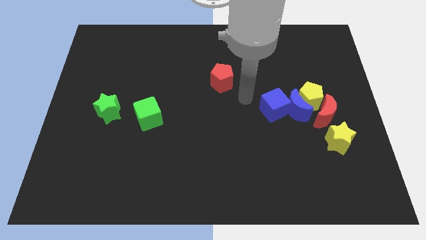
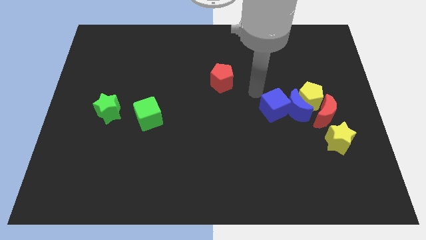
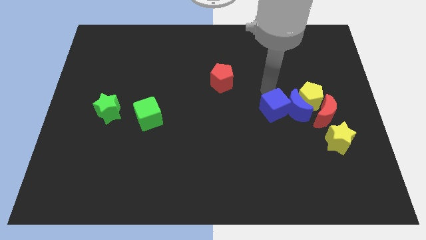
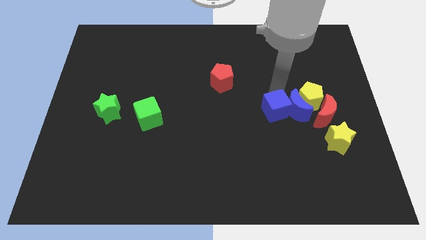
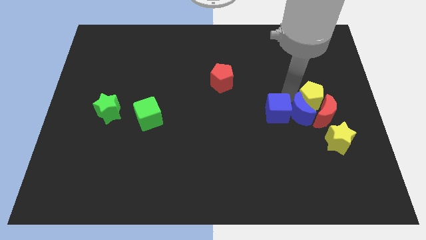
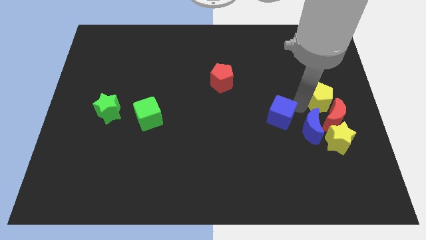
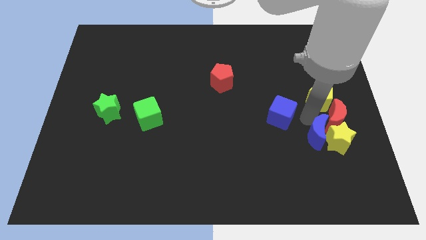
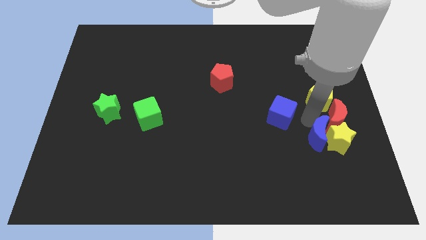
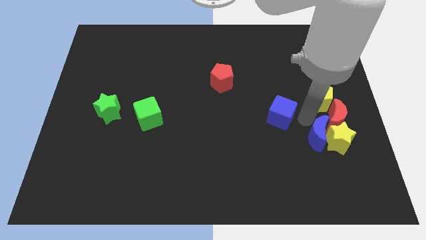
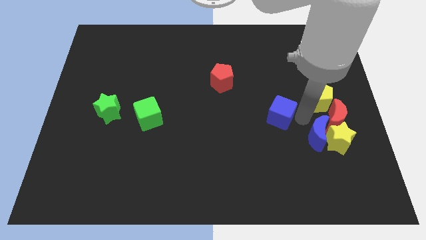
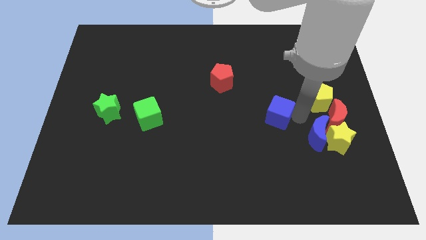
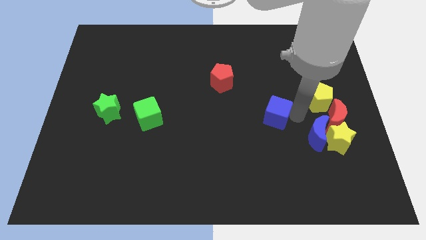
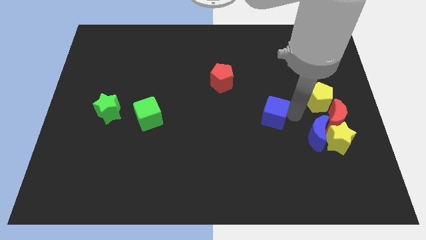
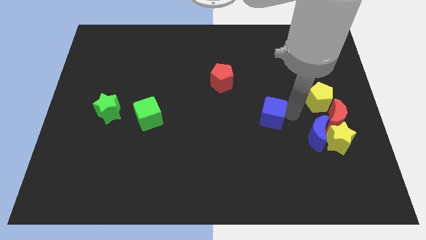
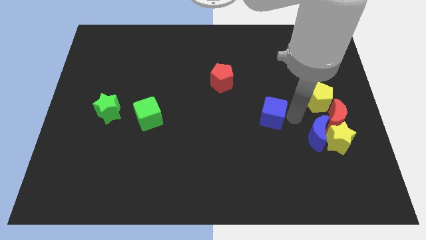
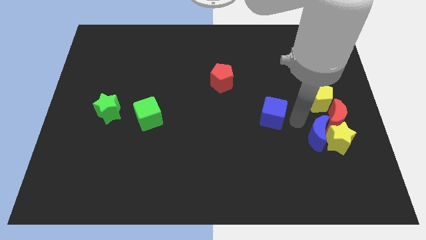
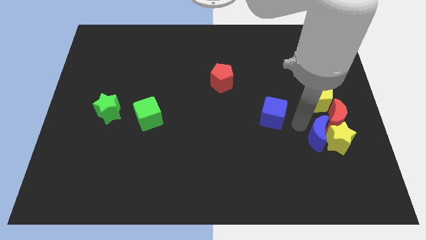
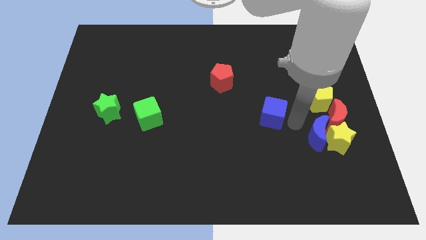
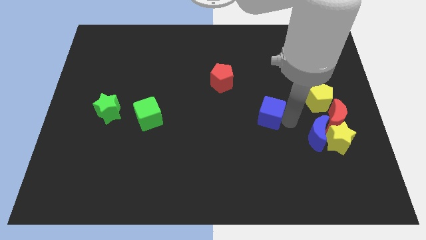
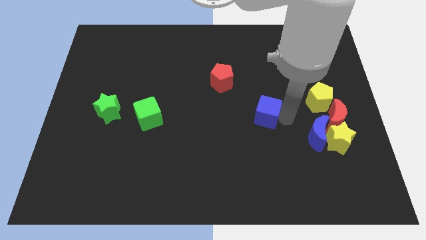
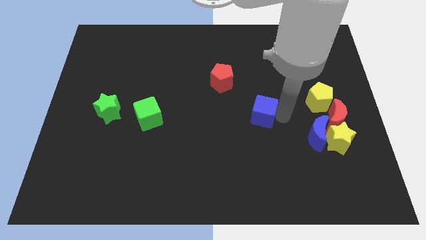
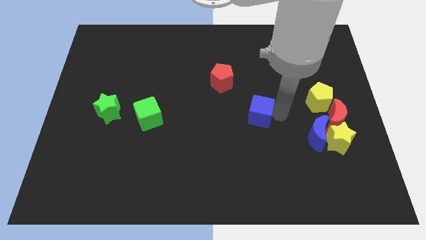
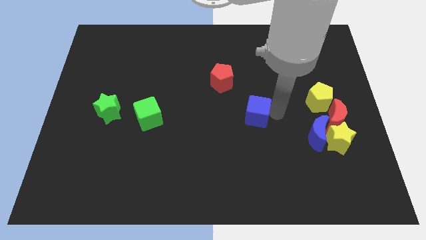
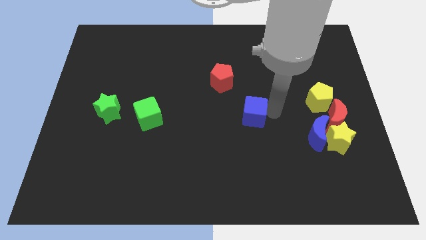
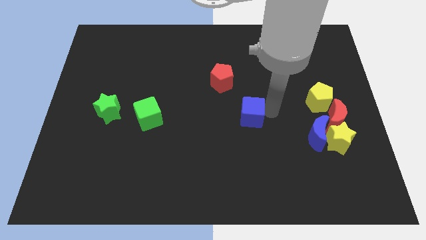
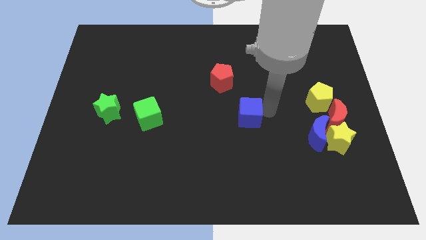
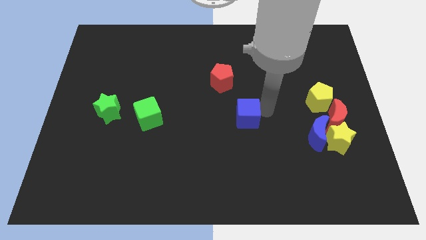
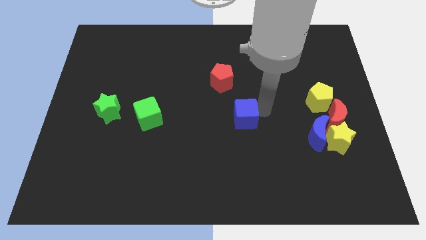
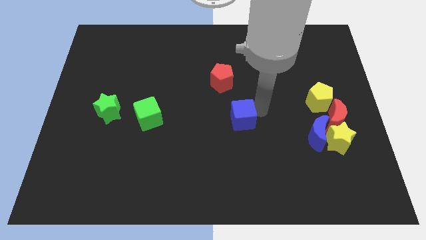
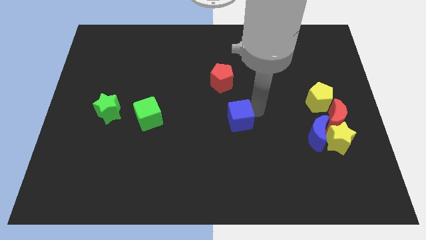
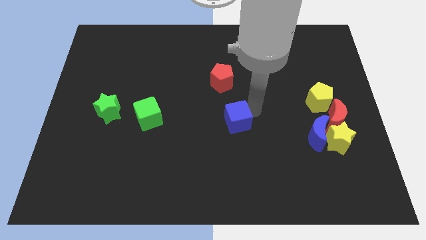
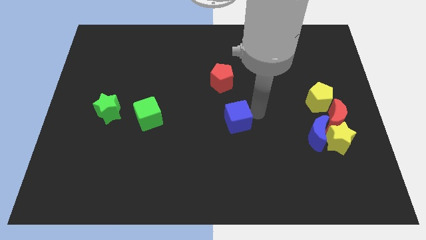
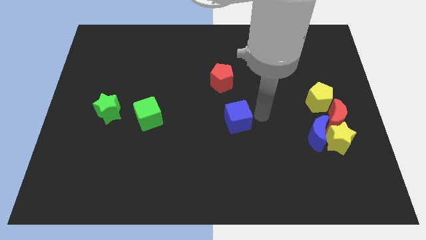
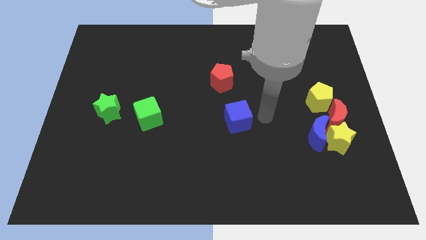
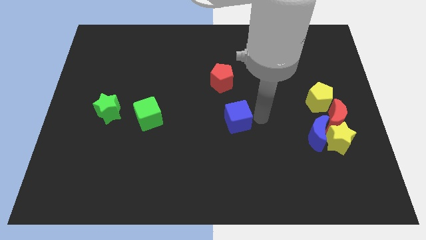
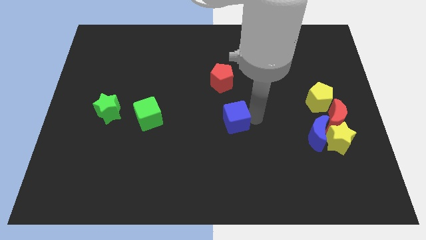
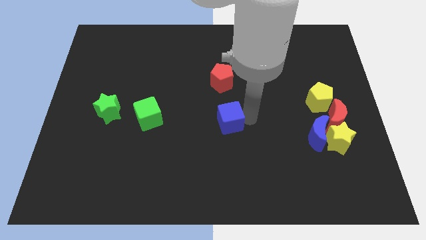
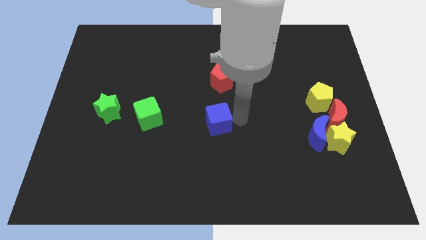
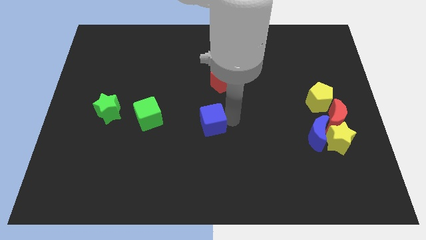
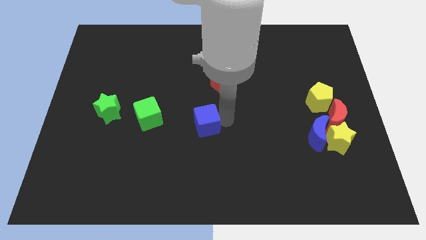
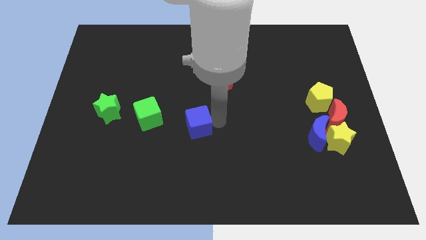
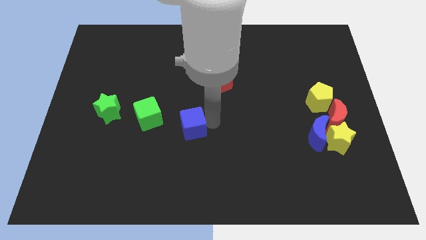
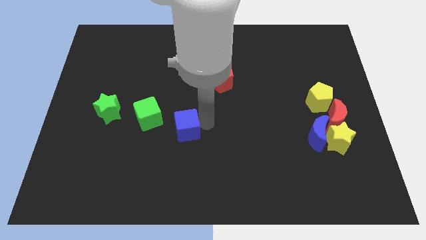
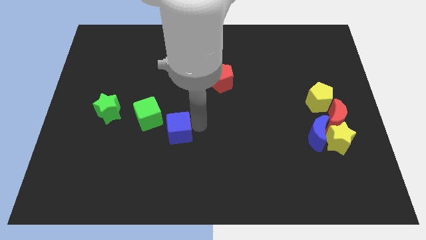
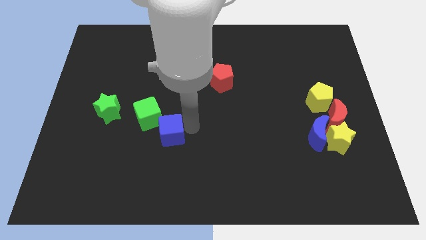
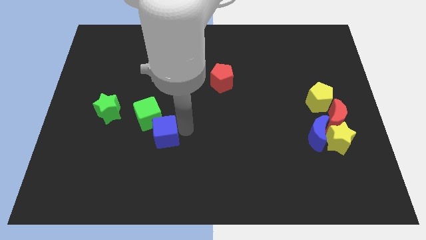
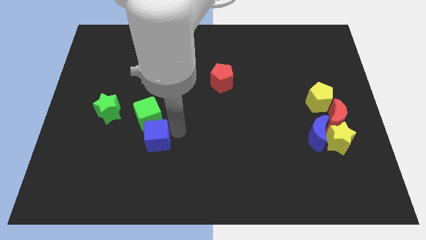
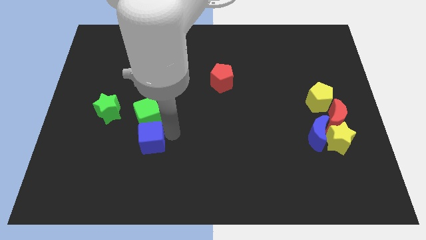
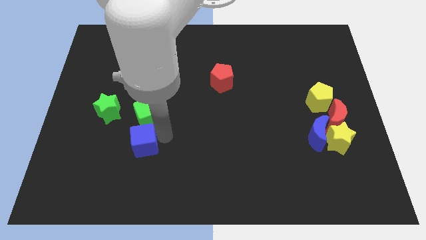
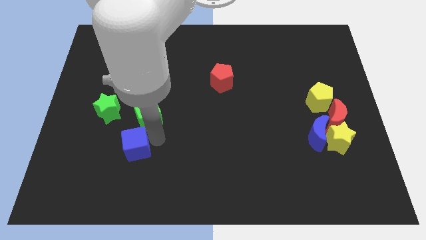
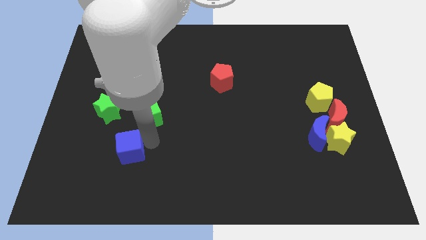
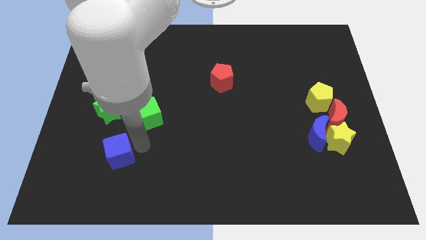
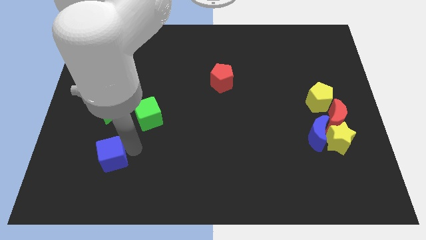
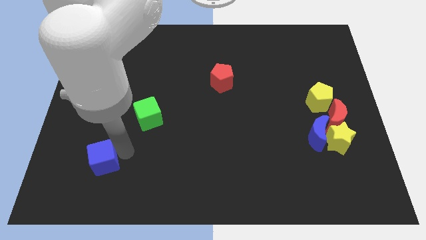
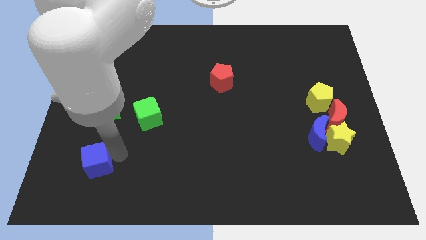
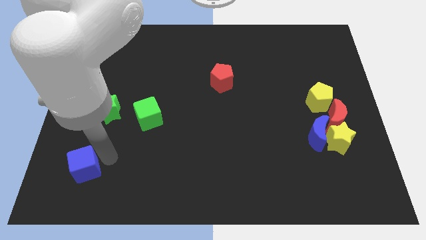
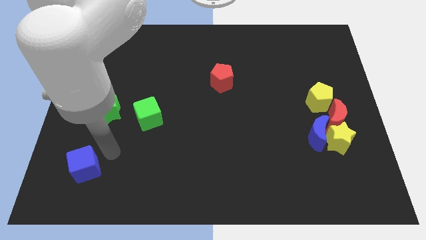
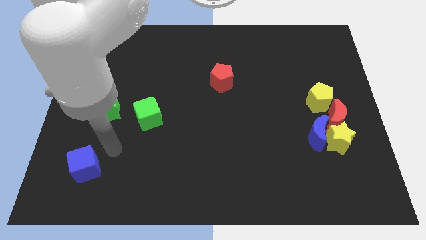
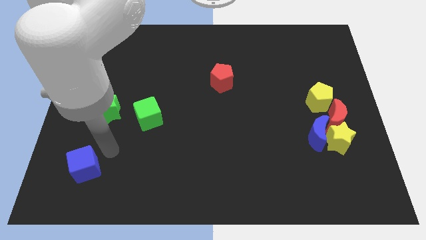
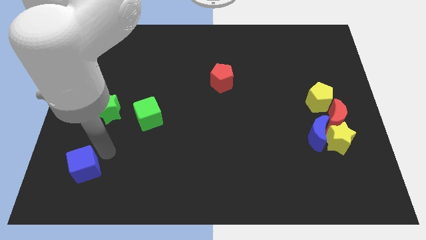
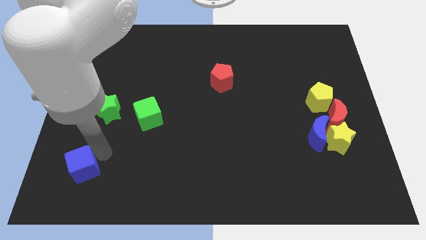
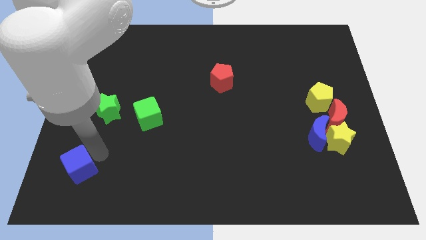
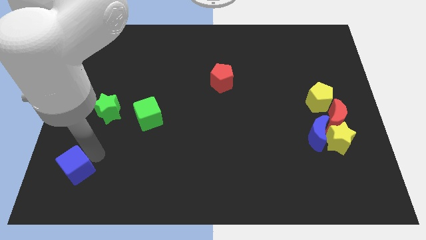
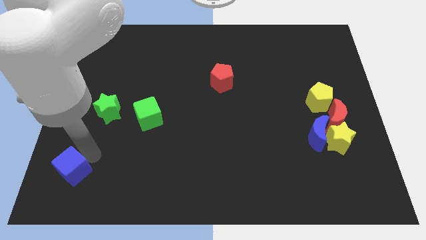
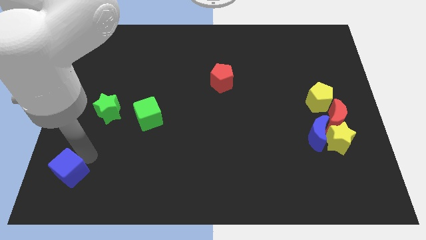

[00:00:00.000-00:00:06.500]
slide the blue cube to the bottom left

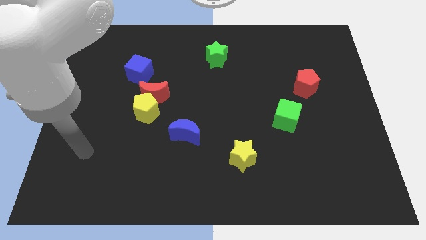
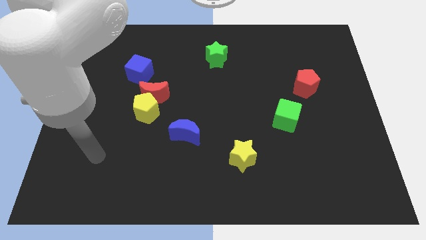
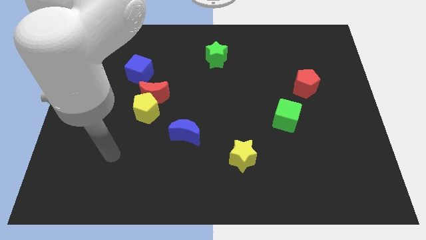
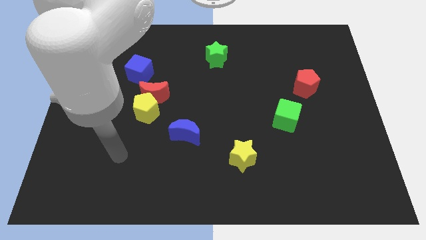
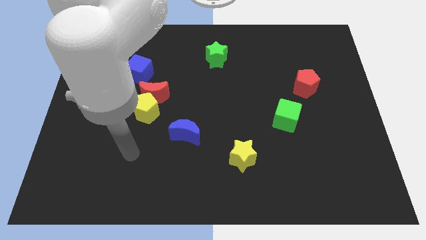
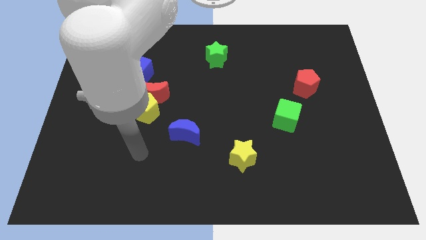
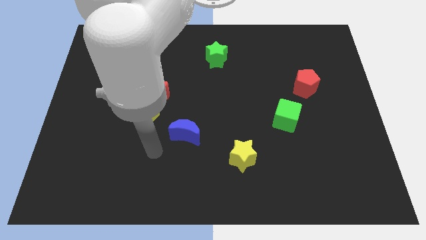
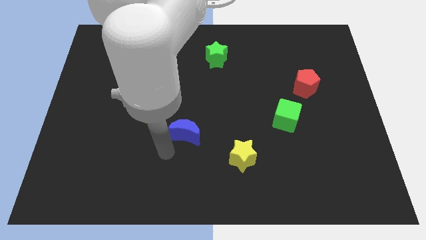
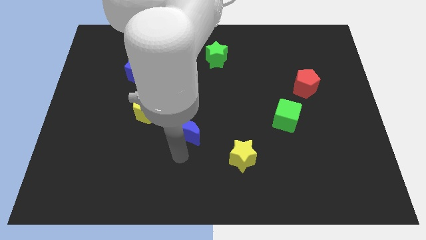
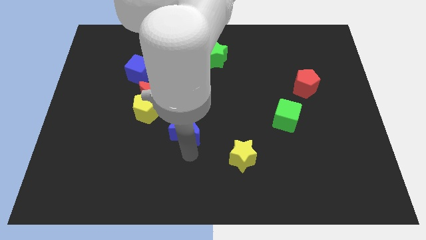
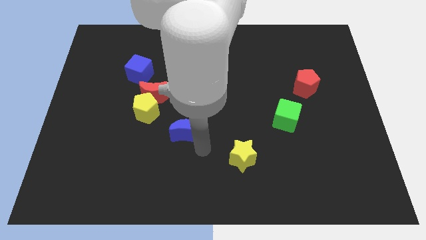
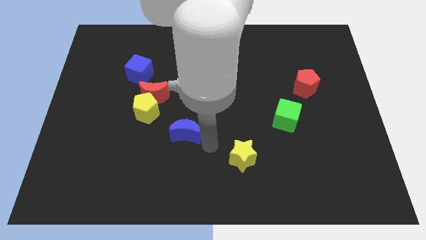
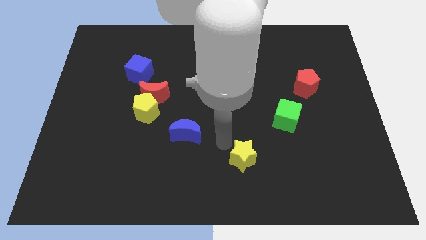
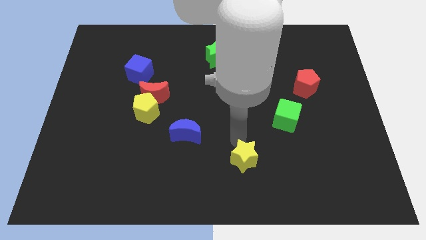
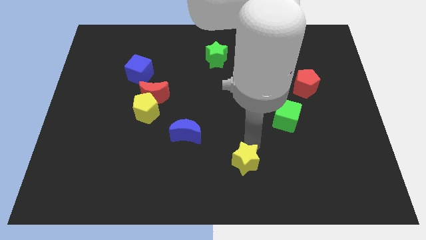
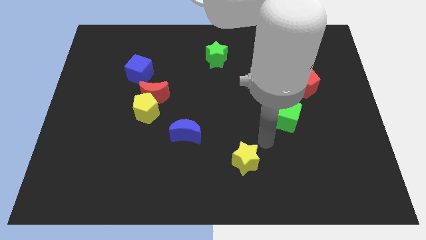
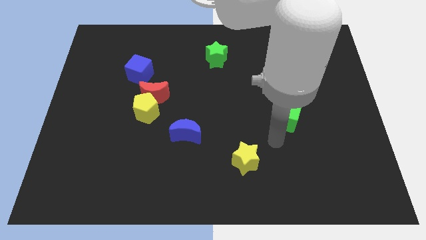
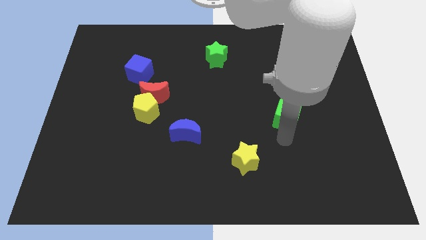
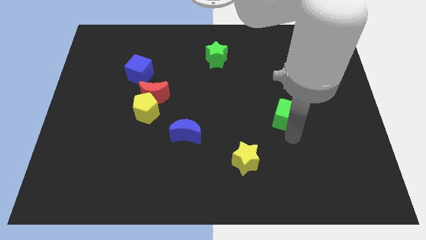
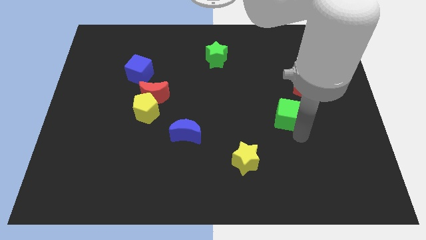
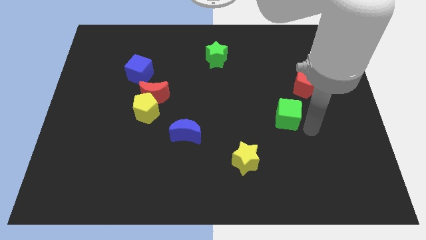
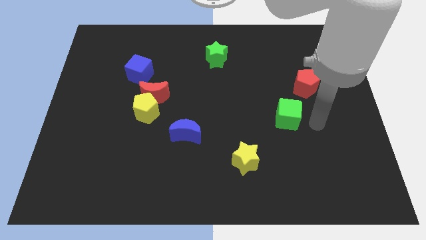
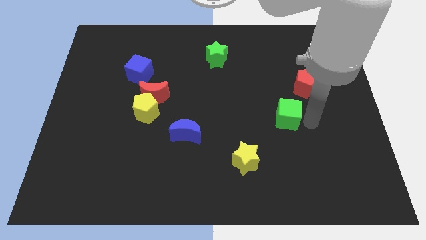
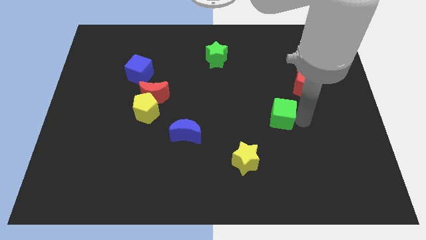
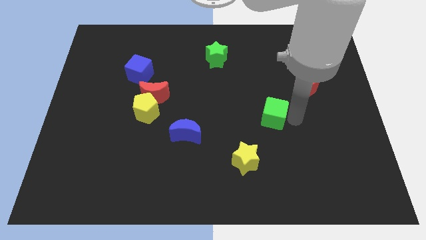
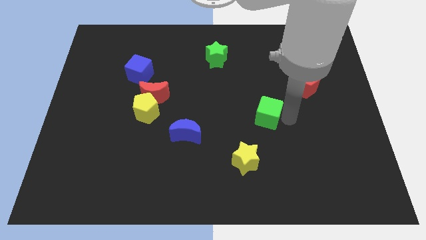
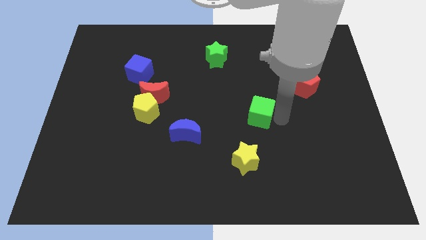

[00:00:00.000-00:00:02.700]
push the green cube to the middle
